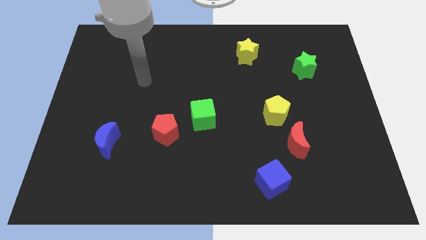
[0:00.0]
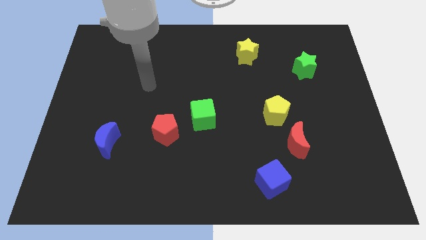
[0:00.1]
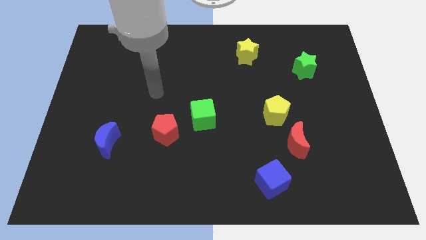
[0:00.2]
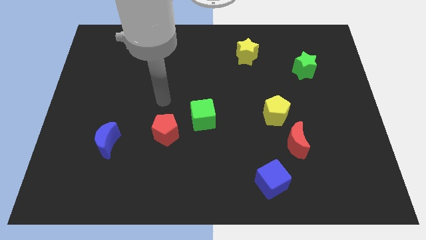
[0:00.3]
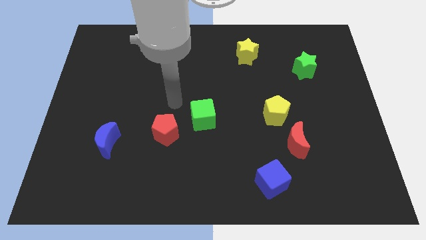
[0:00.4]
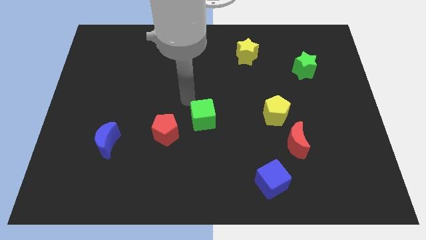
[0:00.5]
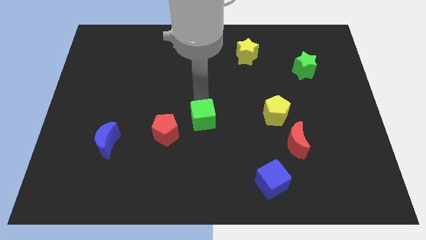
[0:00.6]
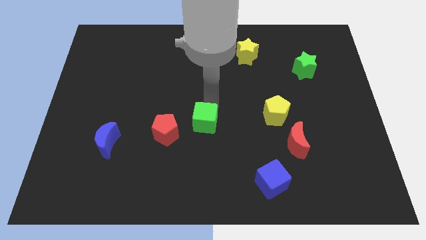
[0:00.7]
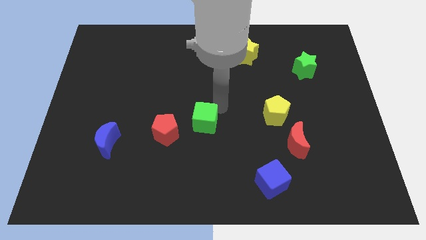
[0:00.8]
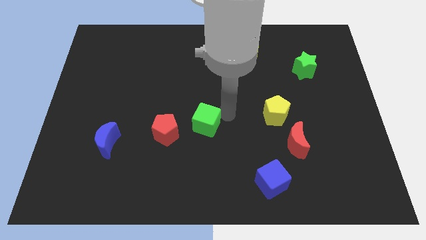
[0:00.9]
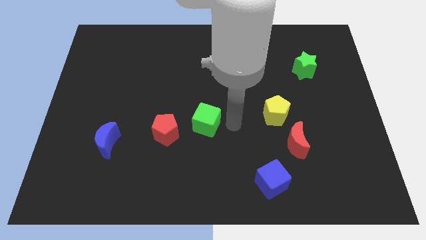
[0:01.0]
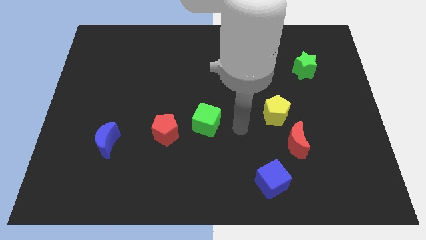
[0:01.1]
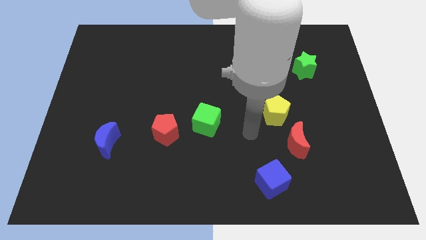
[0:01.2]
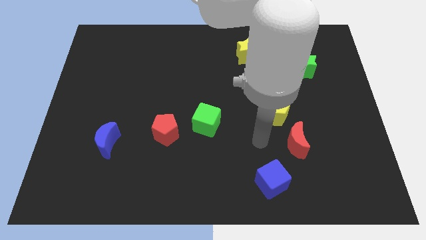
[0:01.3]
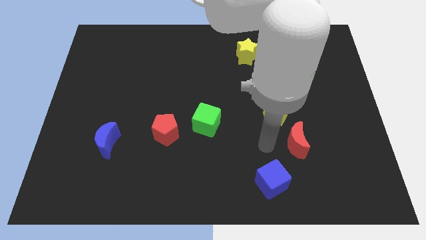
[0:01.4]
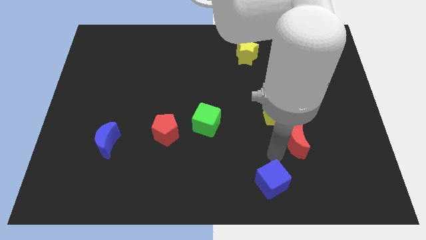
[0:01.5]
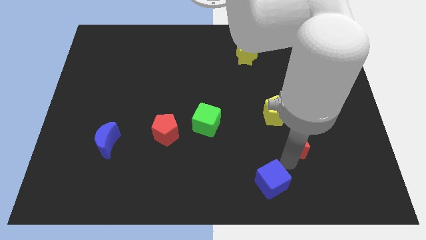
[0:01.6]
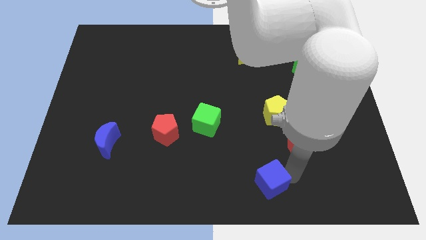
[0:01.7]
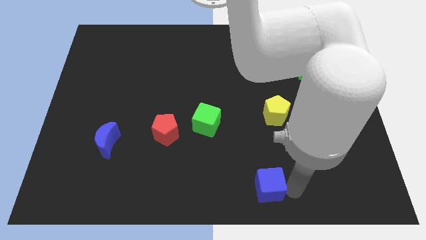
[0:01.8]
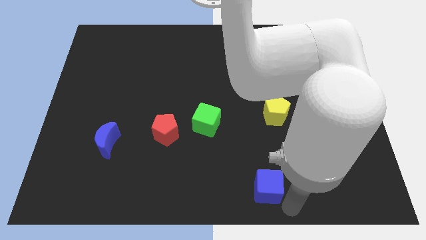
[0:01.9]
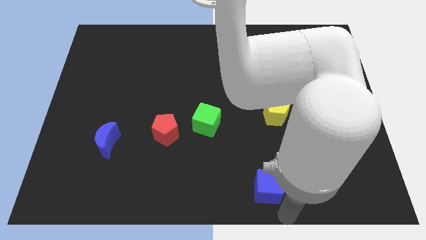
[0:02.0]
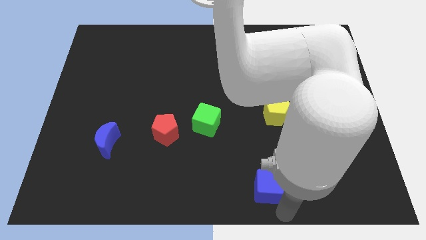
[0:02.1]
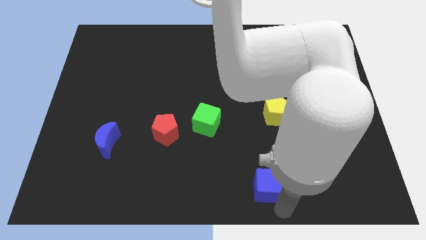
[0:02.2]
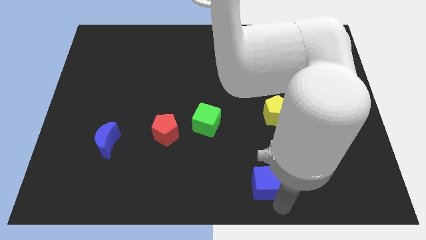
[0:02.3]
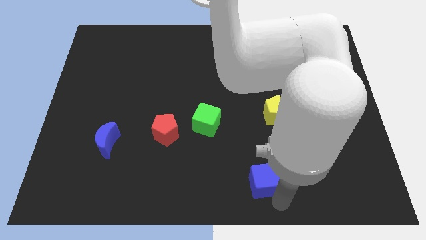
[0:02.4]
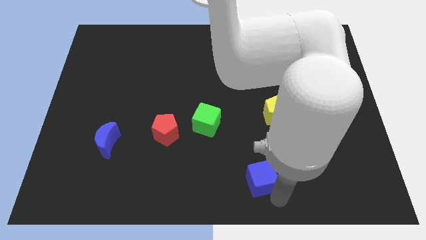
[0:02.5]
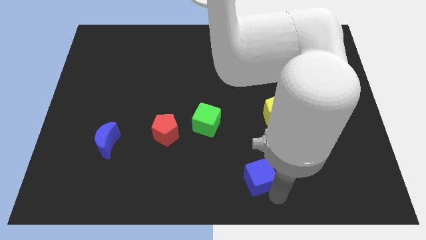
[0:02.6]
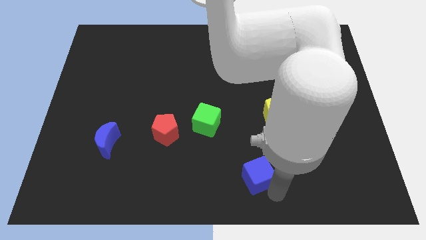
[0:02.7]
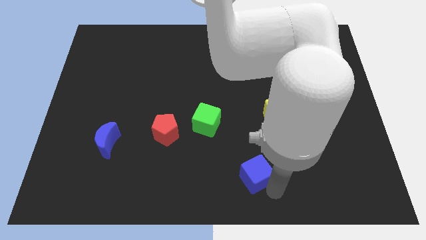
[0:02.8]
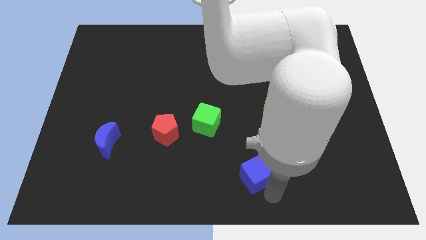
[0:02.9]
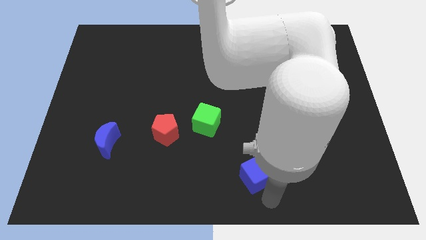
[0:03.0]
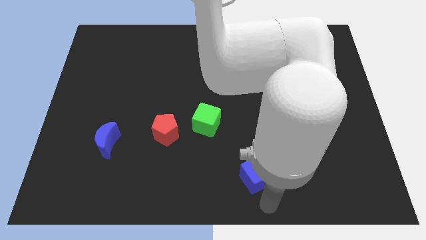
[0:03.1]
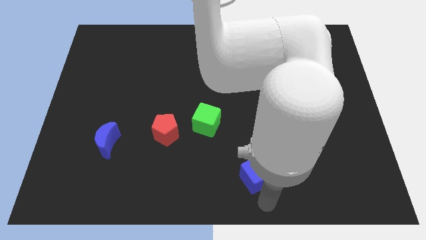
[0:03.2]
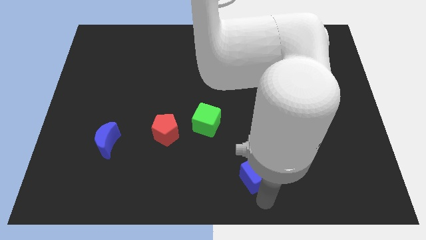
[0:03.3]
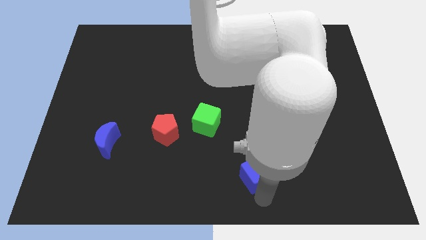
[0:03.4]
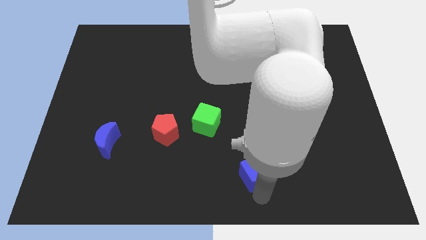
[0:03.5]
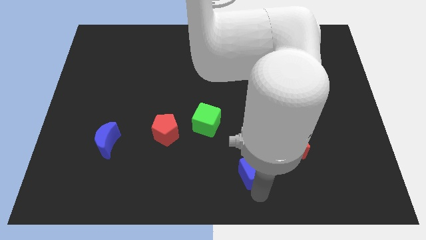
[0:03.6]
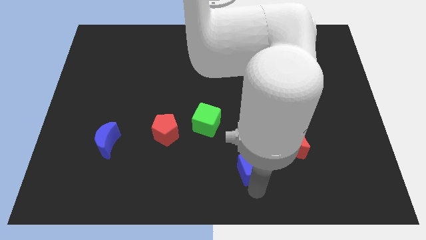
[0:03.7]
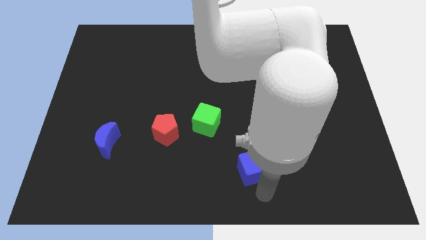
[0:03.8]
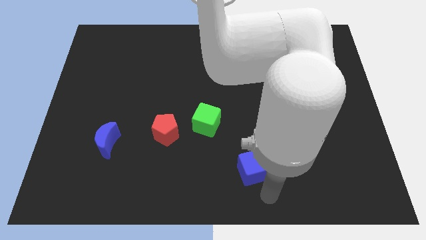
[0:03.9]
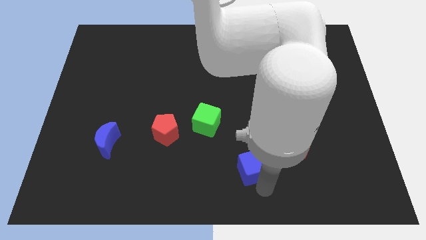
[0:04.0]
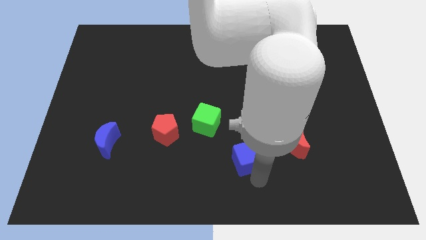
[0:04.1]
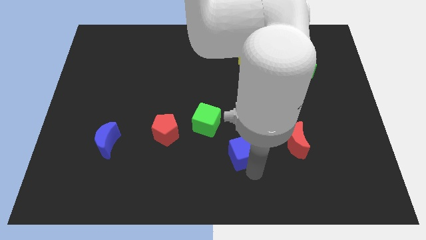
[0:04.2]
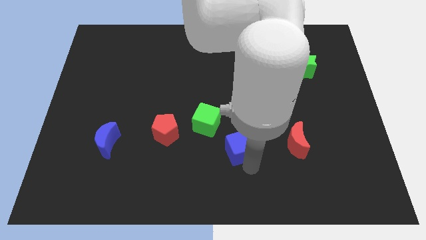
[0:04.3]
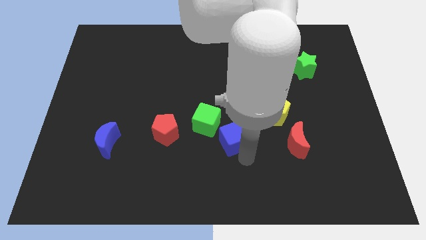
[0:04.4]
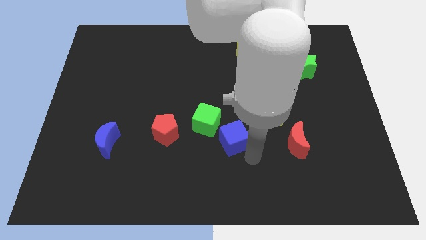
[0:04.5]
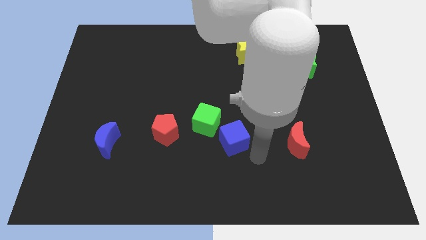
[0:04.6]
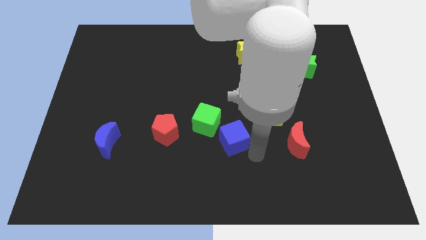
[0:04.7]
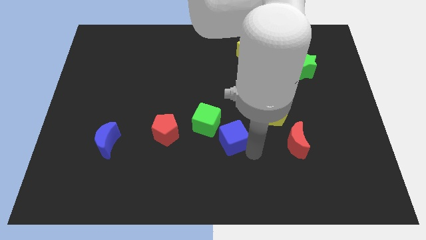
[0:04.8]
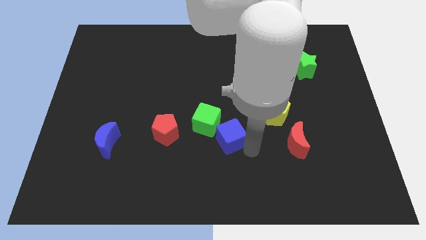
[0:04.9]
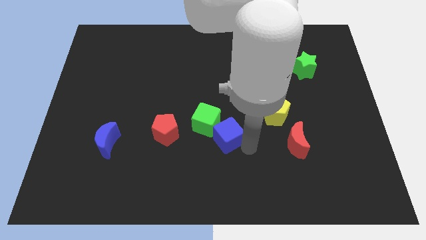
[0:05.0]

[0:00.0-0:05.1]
put the blue cube to the green cube

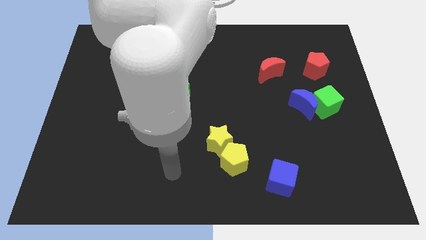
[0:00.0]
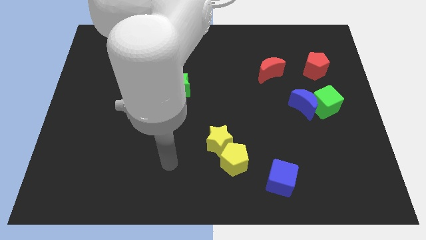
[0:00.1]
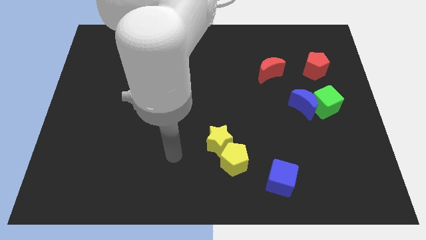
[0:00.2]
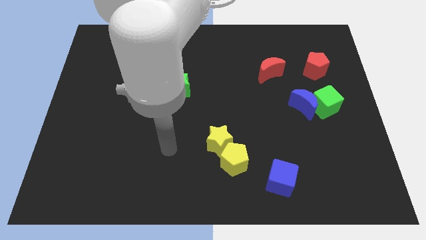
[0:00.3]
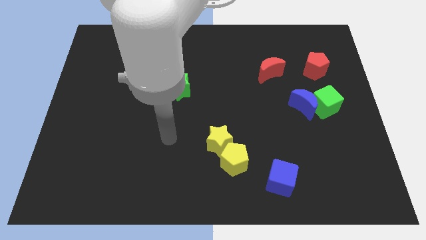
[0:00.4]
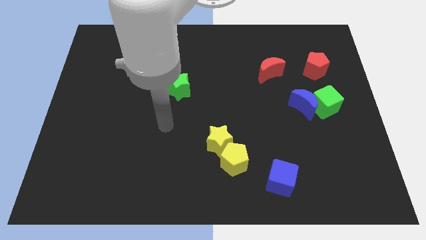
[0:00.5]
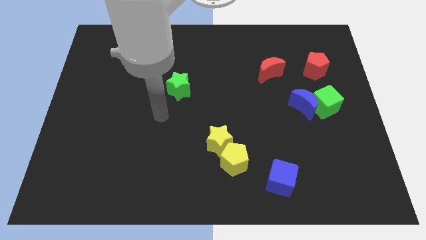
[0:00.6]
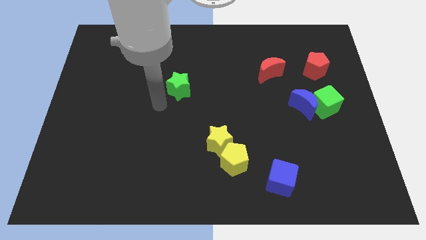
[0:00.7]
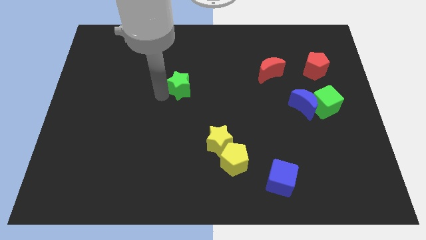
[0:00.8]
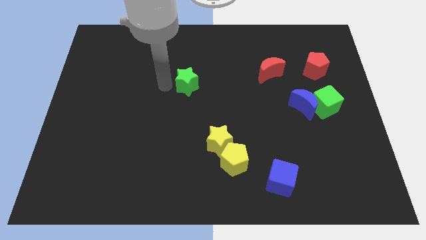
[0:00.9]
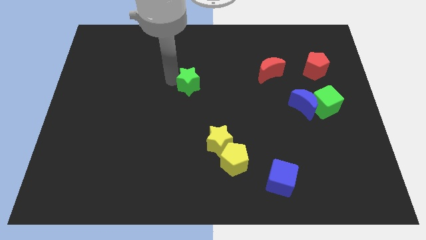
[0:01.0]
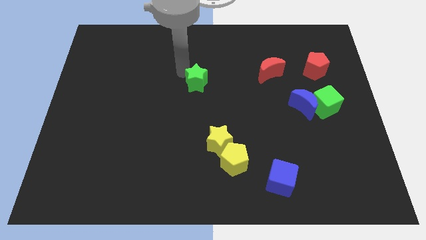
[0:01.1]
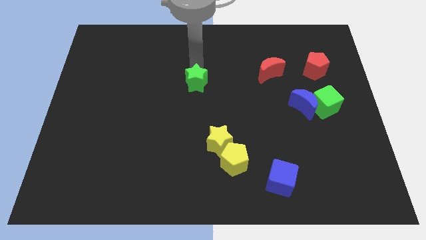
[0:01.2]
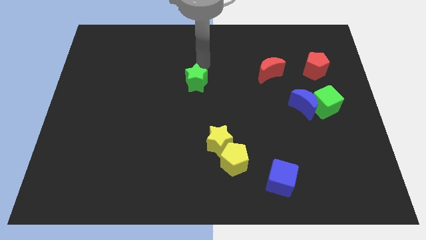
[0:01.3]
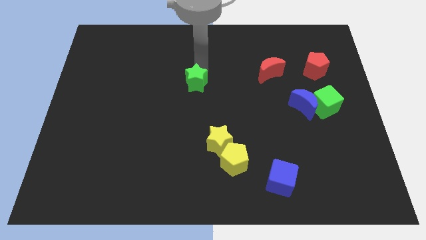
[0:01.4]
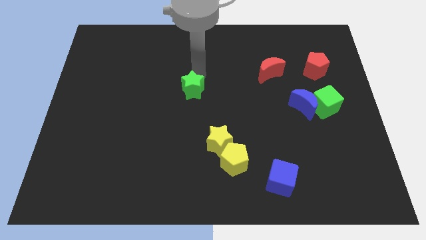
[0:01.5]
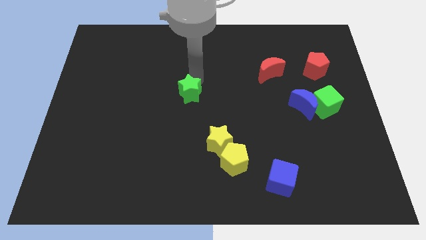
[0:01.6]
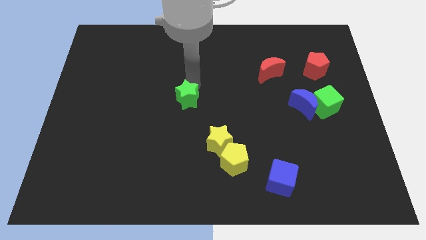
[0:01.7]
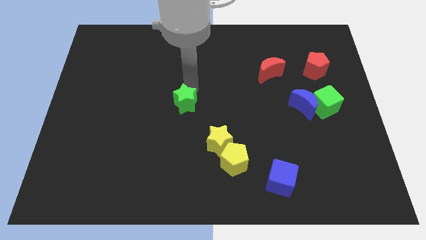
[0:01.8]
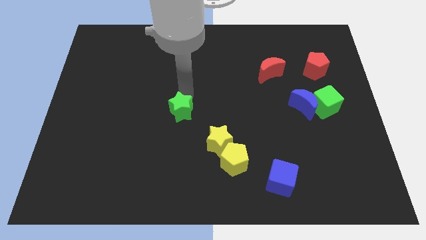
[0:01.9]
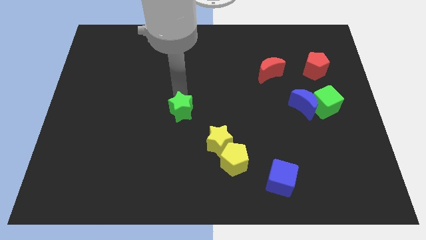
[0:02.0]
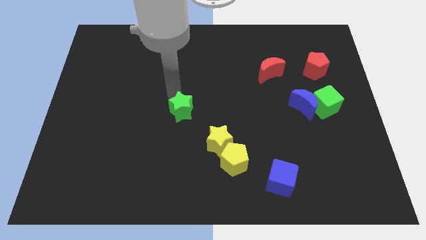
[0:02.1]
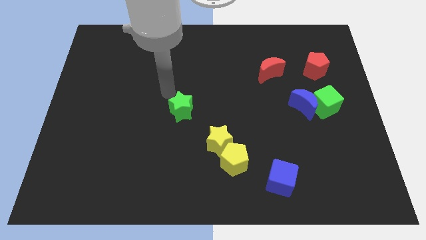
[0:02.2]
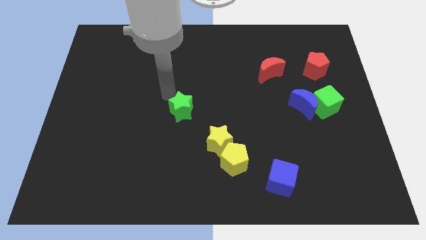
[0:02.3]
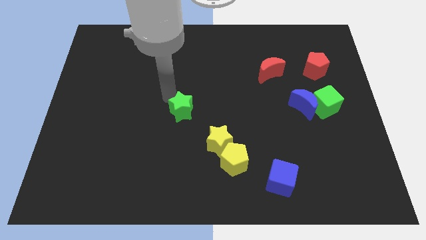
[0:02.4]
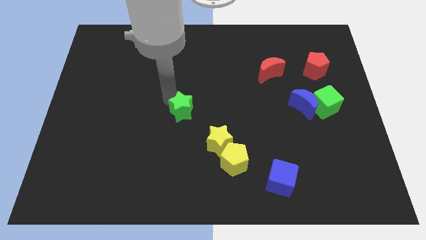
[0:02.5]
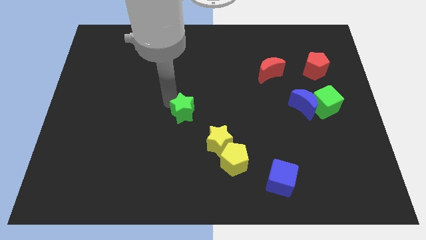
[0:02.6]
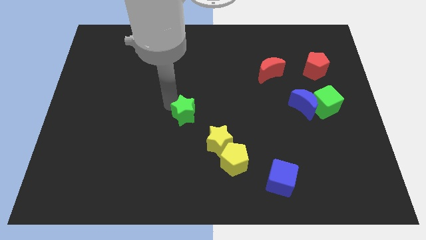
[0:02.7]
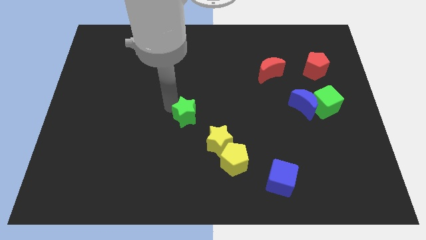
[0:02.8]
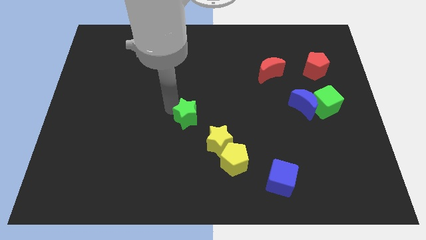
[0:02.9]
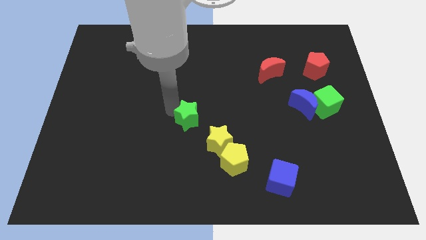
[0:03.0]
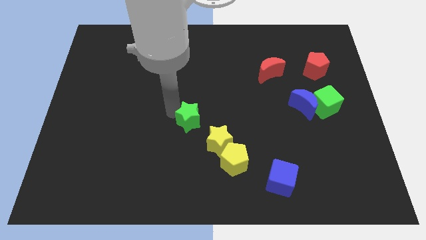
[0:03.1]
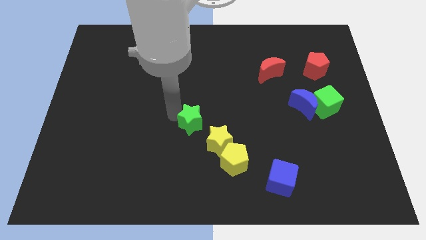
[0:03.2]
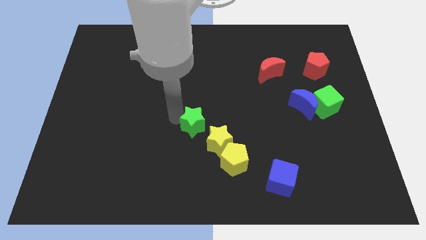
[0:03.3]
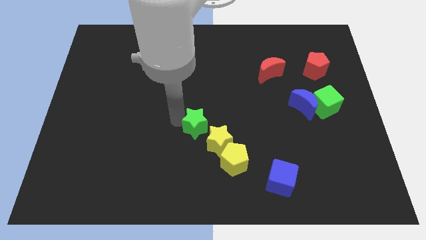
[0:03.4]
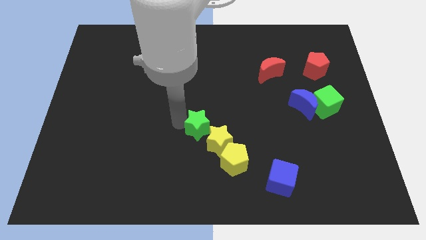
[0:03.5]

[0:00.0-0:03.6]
push the green star next to the yellow star
